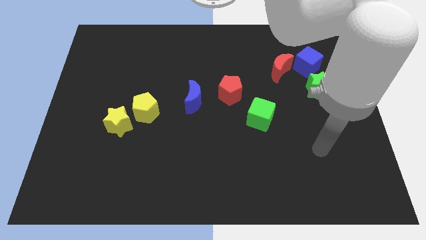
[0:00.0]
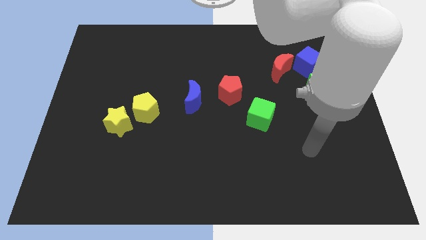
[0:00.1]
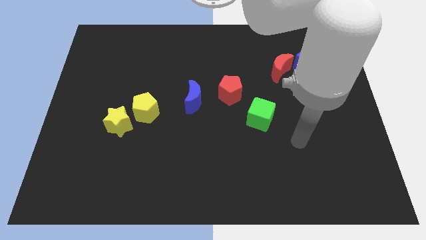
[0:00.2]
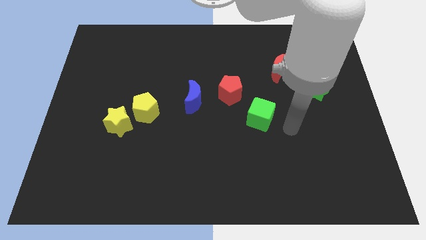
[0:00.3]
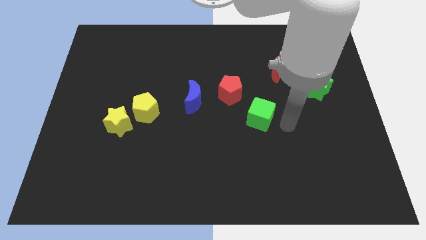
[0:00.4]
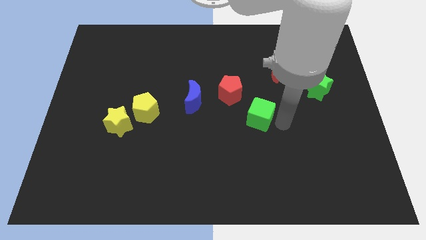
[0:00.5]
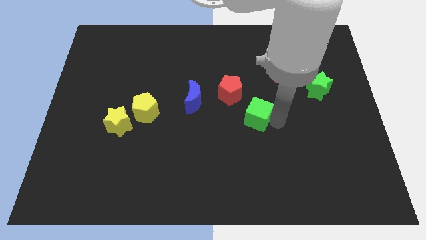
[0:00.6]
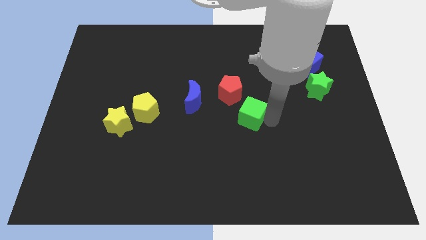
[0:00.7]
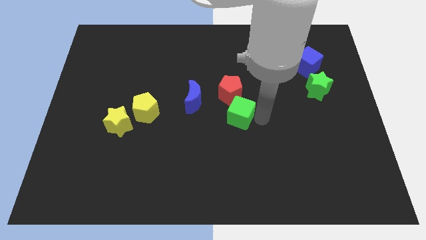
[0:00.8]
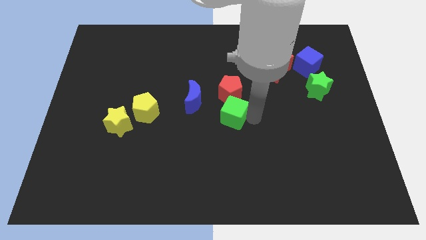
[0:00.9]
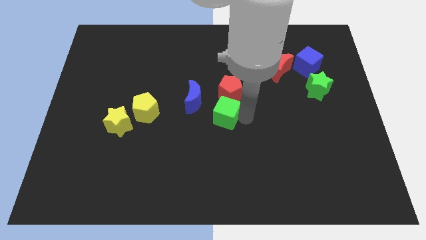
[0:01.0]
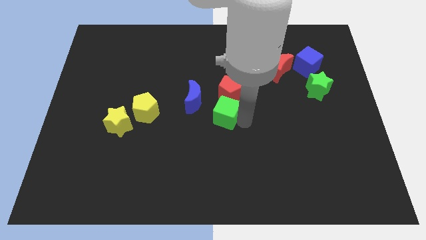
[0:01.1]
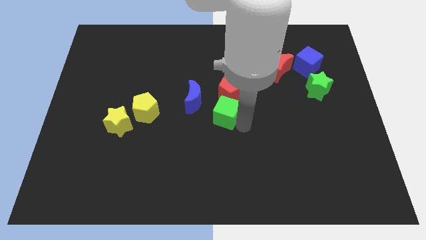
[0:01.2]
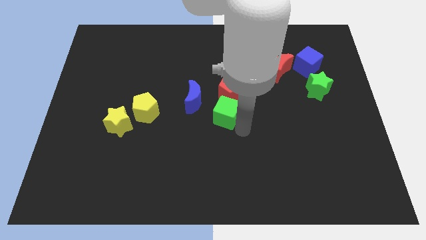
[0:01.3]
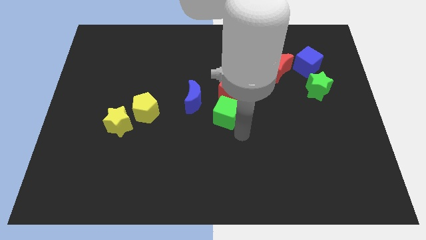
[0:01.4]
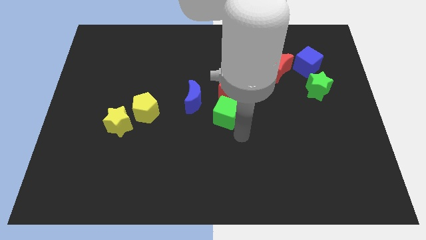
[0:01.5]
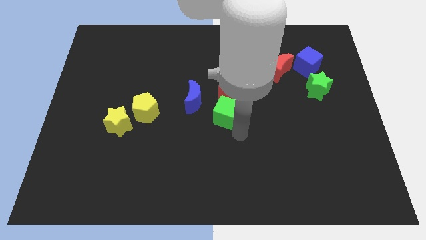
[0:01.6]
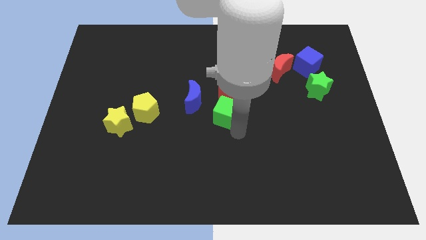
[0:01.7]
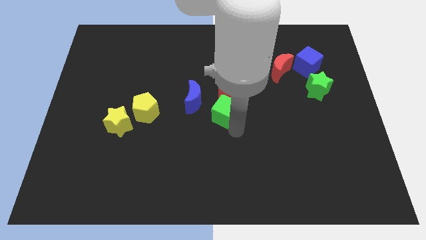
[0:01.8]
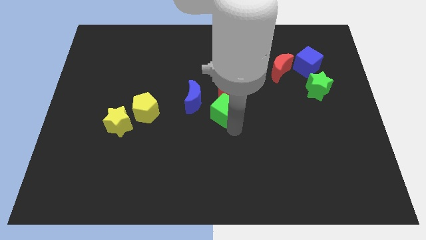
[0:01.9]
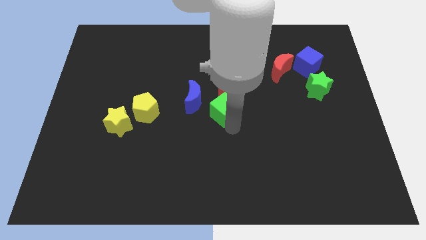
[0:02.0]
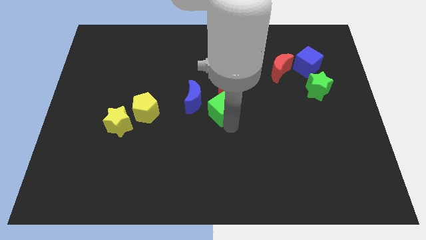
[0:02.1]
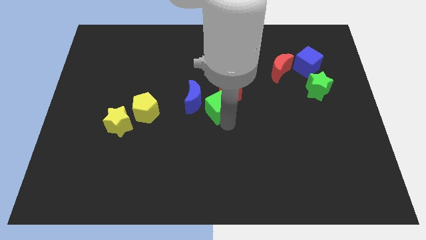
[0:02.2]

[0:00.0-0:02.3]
push the green cube upwards and then to the left slightly

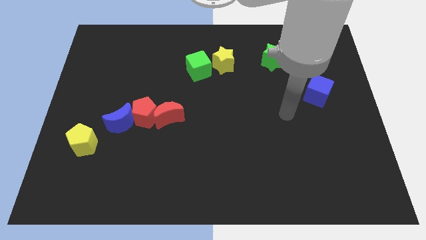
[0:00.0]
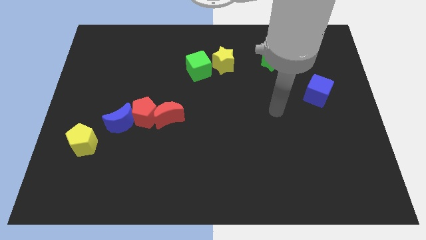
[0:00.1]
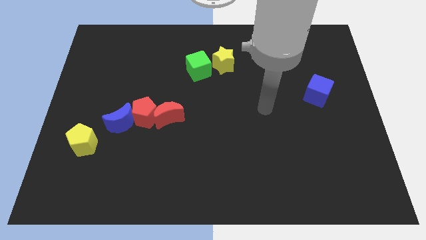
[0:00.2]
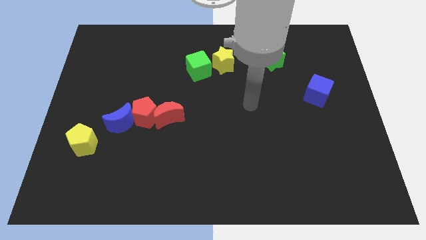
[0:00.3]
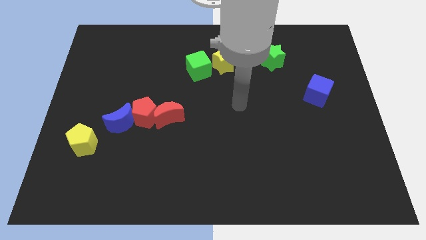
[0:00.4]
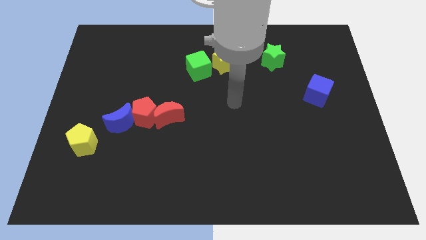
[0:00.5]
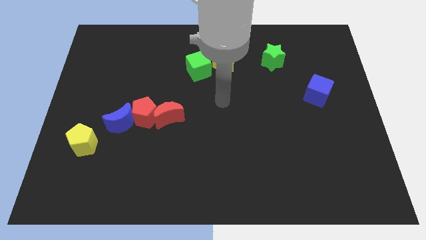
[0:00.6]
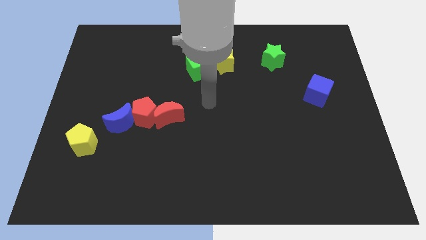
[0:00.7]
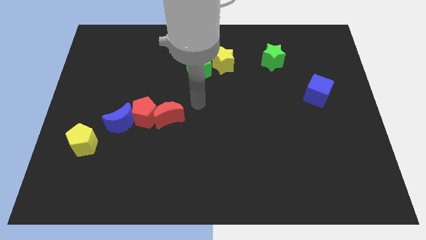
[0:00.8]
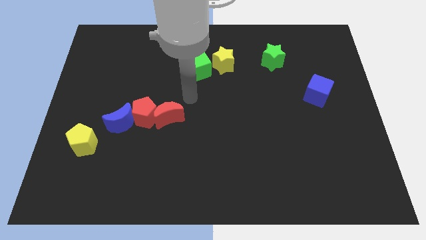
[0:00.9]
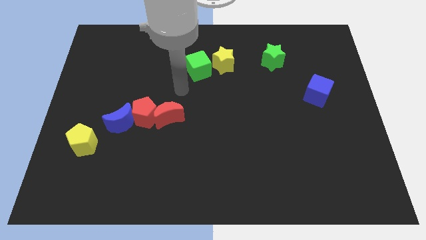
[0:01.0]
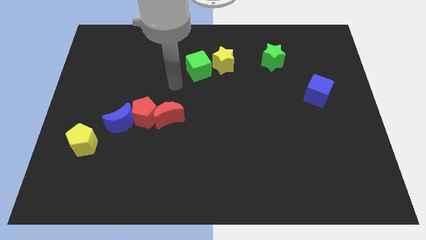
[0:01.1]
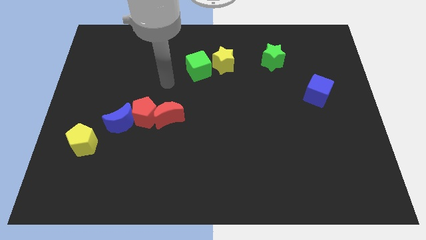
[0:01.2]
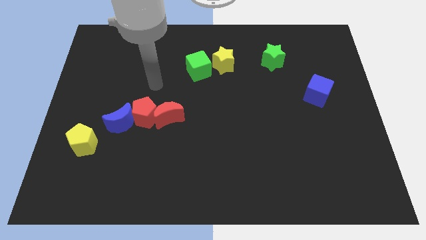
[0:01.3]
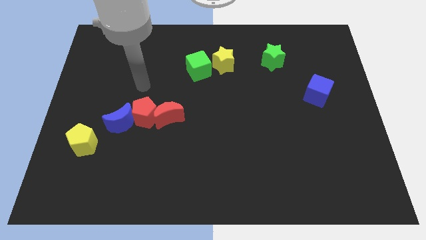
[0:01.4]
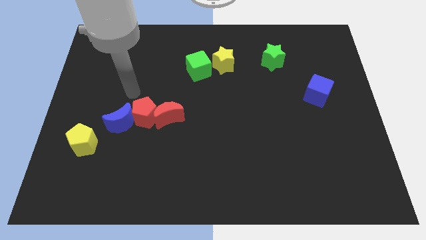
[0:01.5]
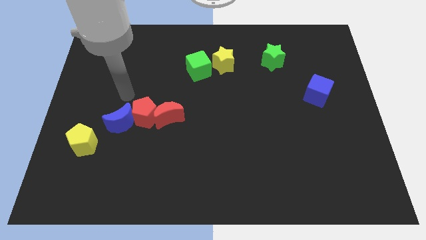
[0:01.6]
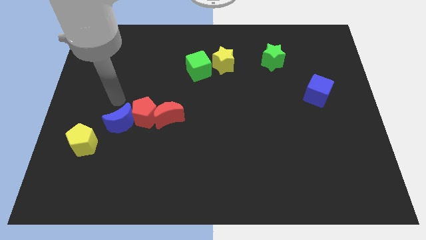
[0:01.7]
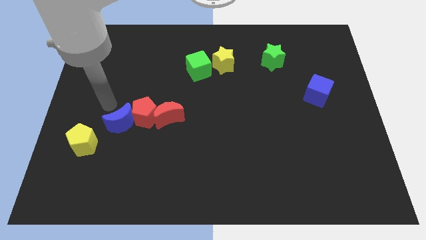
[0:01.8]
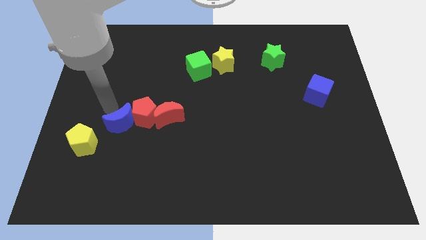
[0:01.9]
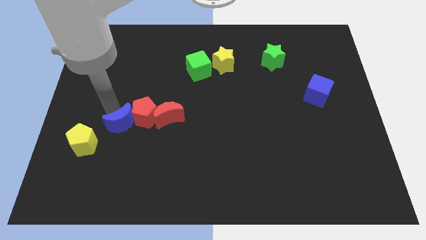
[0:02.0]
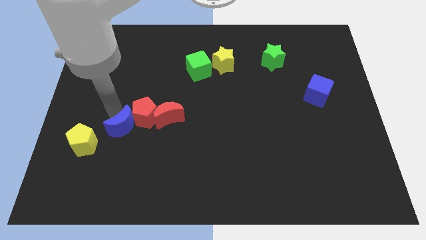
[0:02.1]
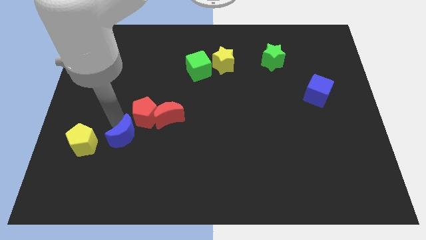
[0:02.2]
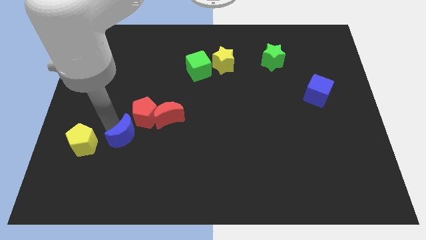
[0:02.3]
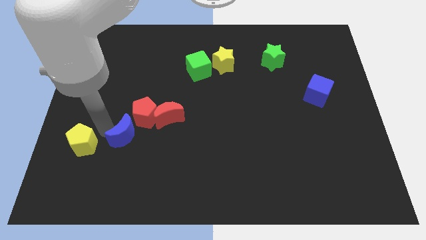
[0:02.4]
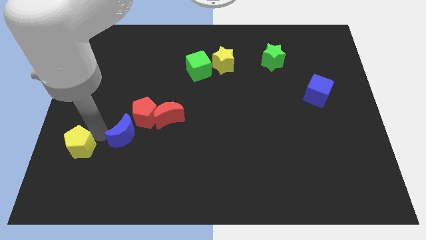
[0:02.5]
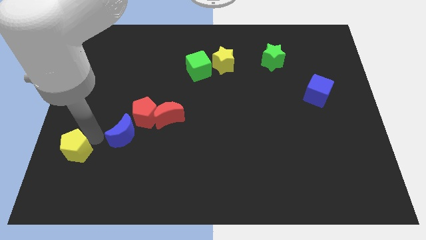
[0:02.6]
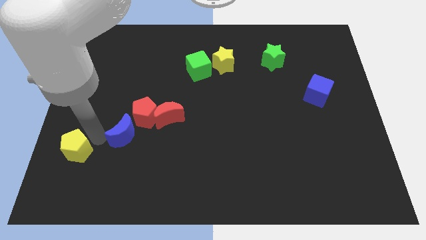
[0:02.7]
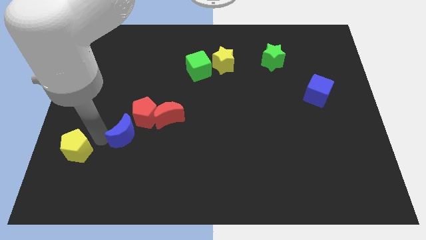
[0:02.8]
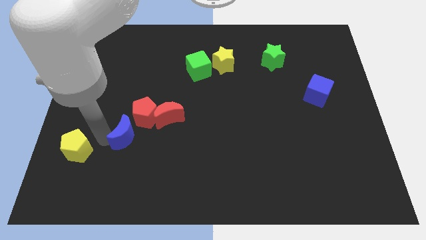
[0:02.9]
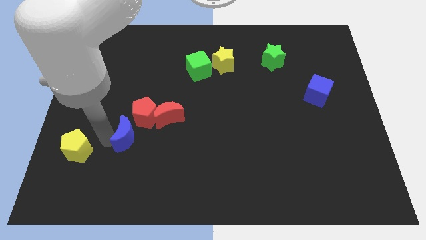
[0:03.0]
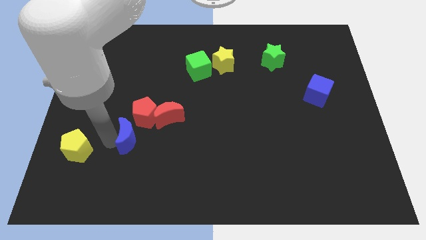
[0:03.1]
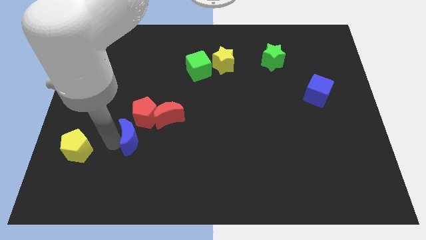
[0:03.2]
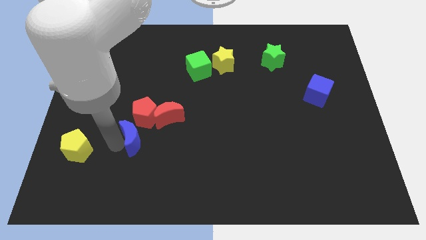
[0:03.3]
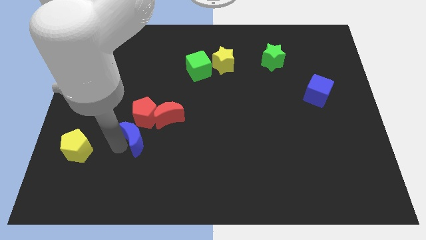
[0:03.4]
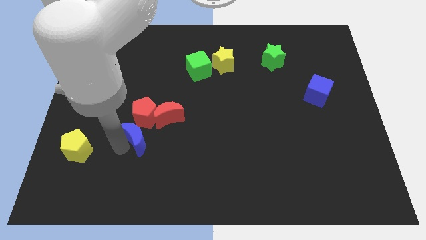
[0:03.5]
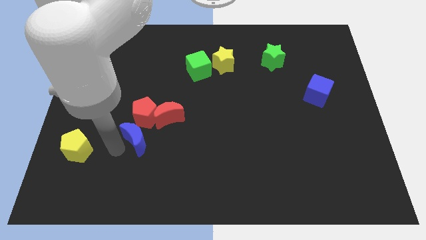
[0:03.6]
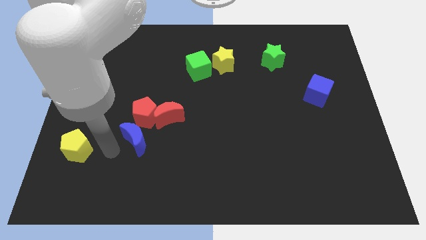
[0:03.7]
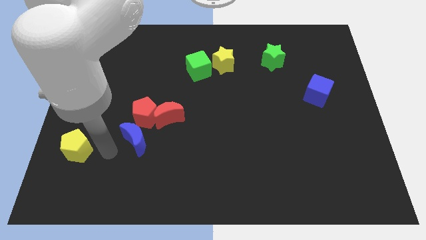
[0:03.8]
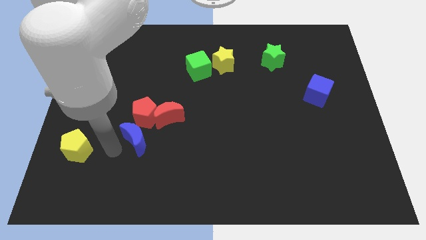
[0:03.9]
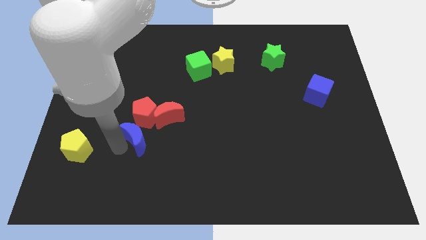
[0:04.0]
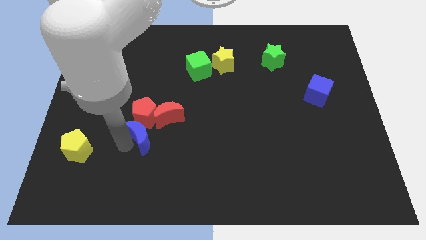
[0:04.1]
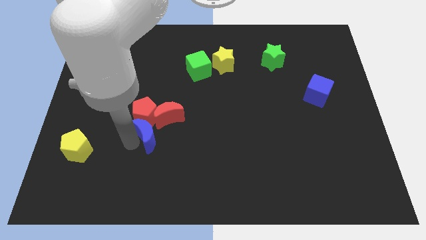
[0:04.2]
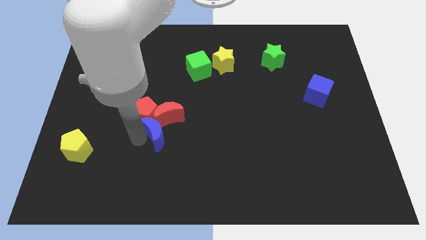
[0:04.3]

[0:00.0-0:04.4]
push the blue moon somewhat to the right

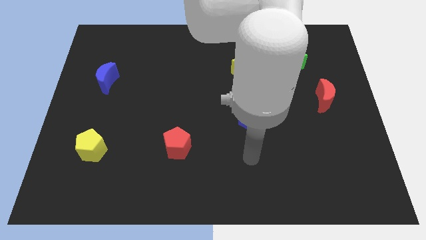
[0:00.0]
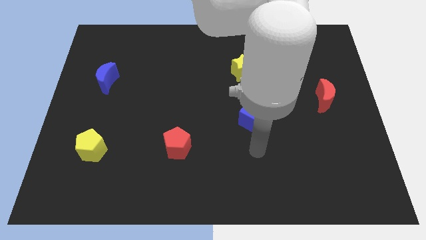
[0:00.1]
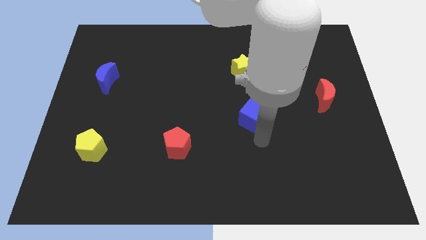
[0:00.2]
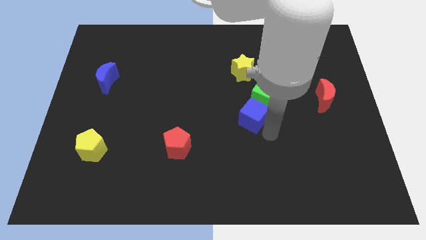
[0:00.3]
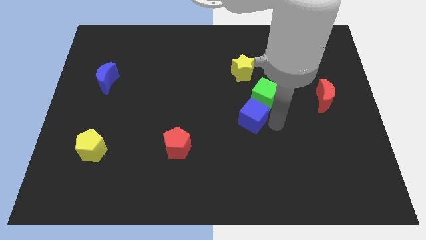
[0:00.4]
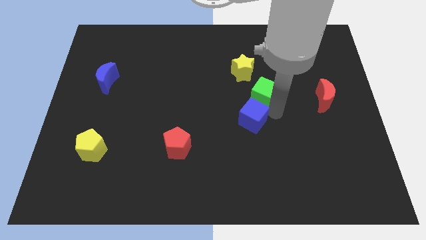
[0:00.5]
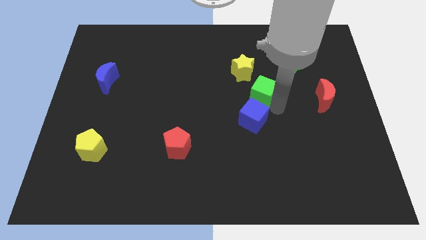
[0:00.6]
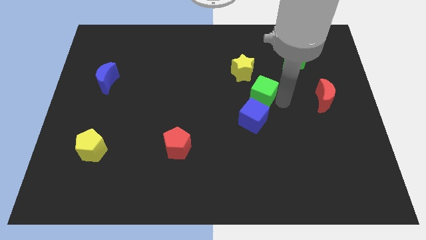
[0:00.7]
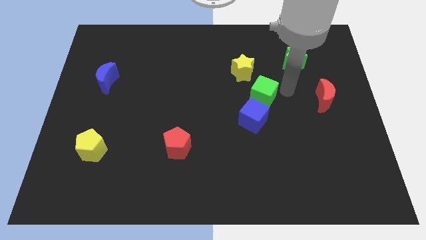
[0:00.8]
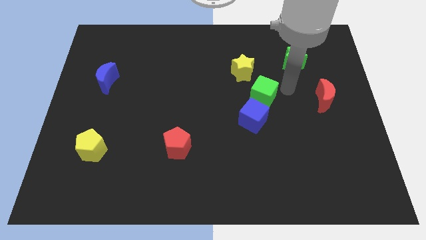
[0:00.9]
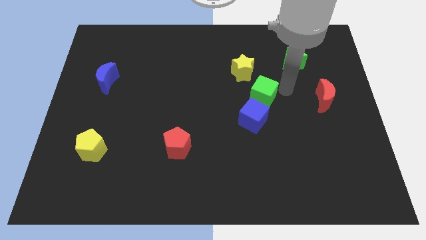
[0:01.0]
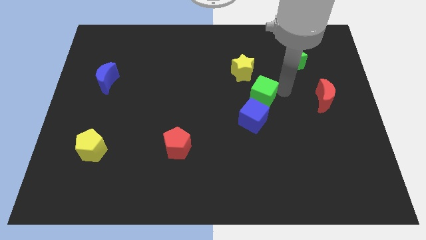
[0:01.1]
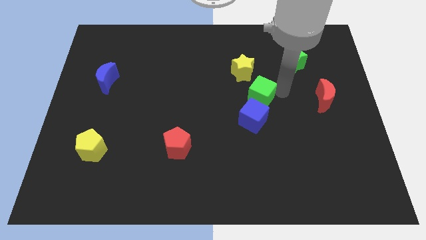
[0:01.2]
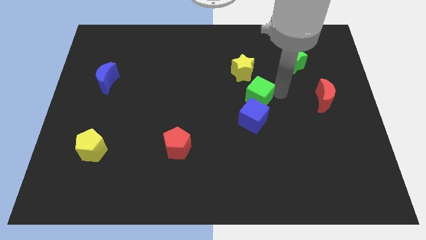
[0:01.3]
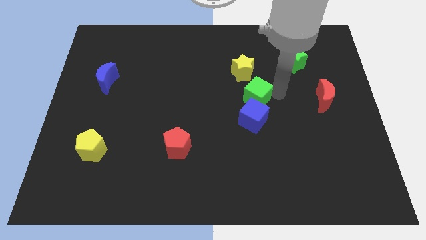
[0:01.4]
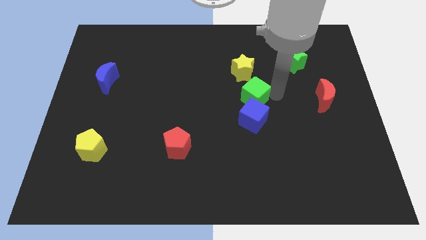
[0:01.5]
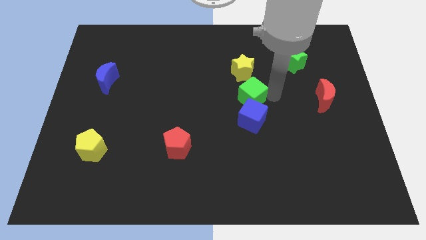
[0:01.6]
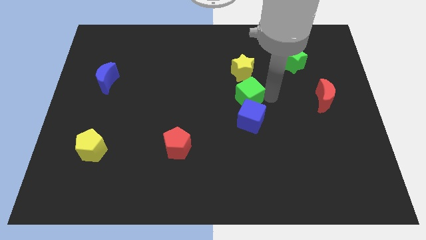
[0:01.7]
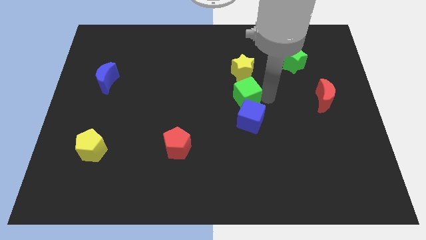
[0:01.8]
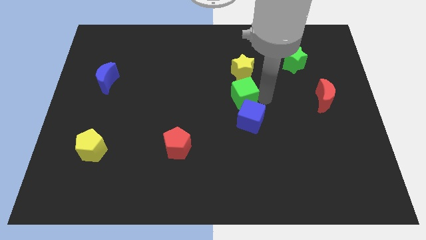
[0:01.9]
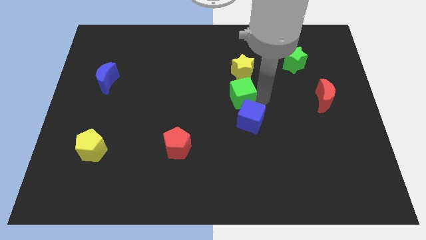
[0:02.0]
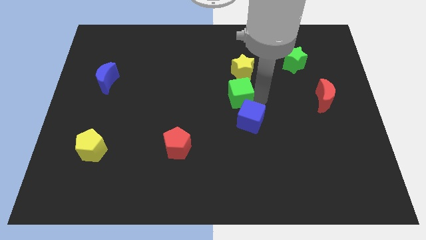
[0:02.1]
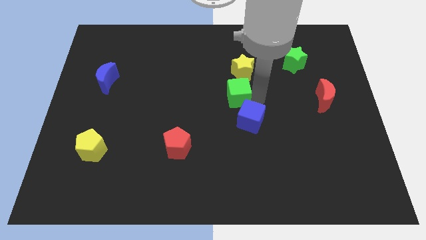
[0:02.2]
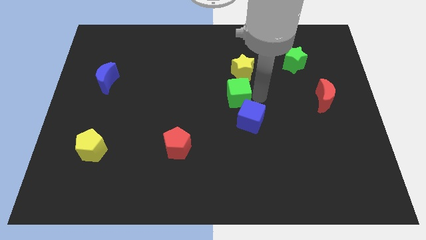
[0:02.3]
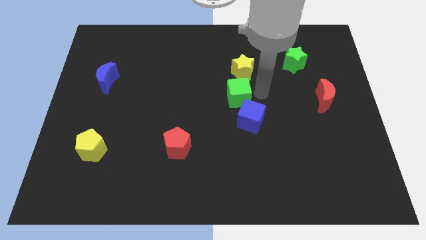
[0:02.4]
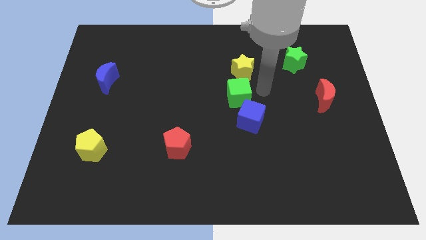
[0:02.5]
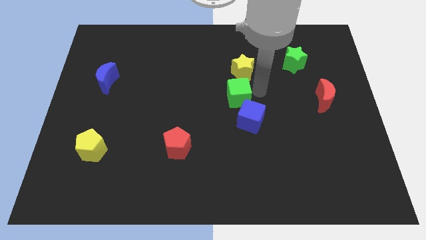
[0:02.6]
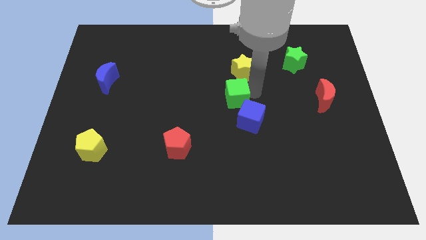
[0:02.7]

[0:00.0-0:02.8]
slide the green cube a little bit to the left
